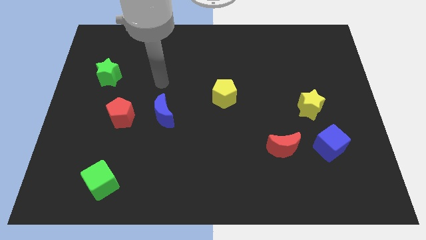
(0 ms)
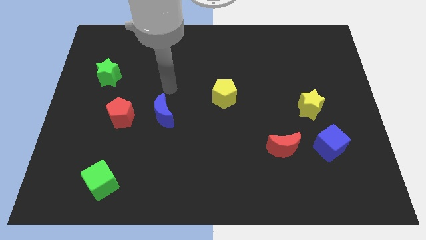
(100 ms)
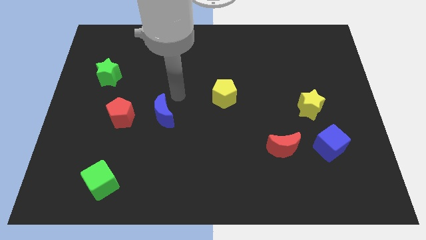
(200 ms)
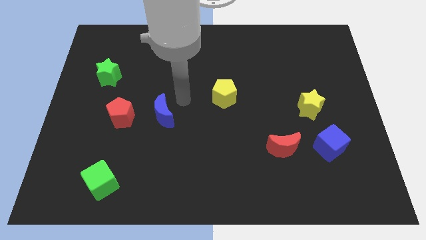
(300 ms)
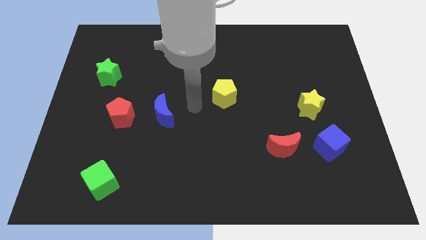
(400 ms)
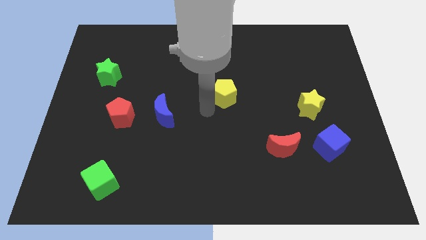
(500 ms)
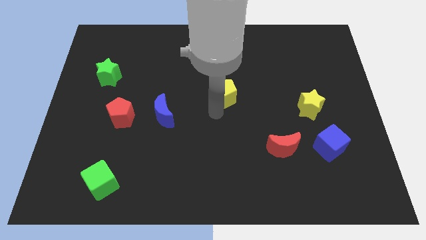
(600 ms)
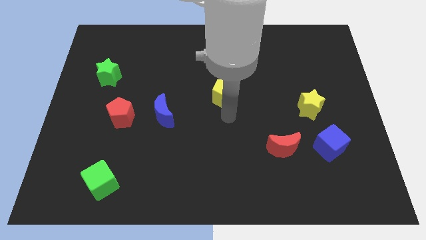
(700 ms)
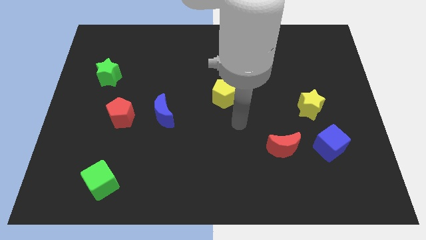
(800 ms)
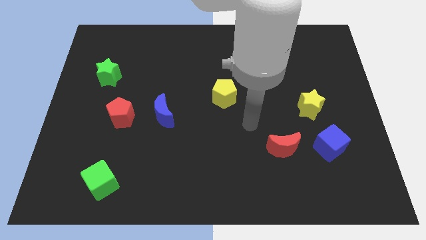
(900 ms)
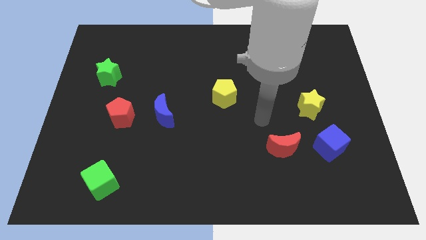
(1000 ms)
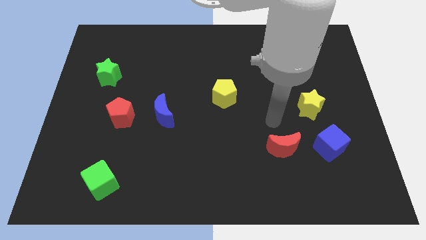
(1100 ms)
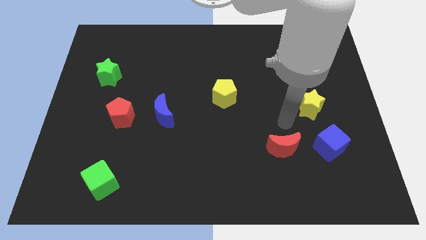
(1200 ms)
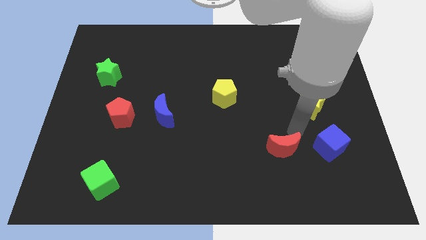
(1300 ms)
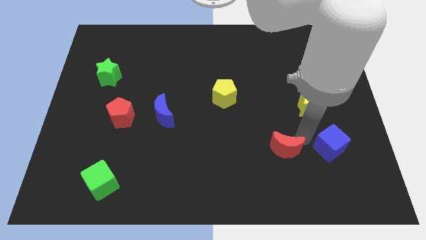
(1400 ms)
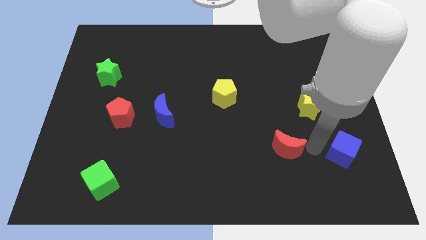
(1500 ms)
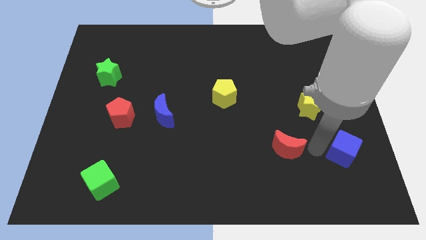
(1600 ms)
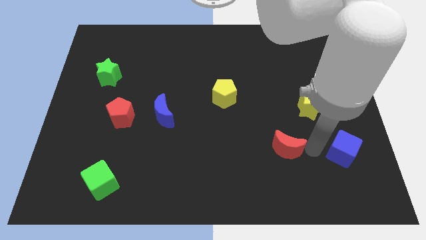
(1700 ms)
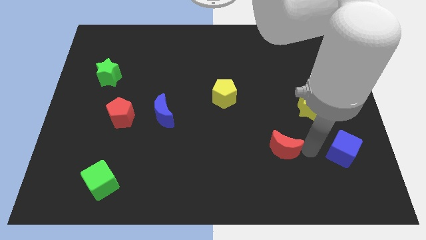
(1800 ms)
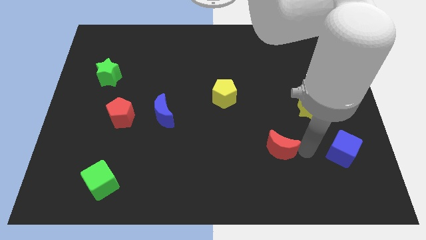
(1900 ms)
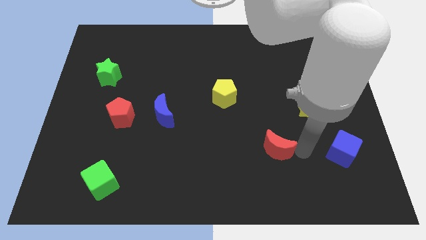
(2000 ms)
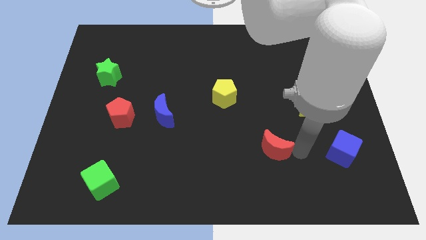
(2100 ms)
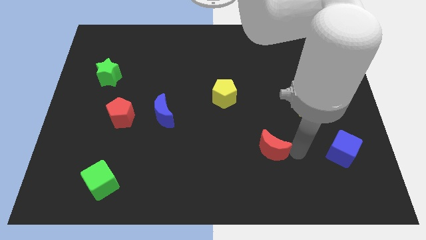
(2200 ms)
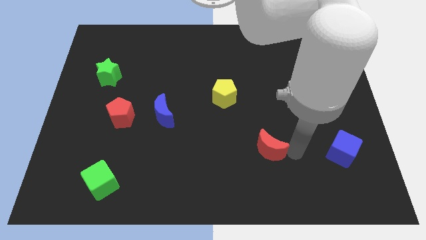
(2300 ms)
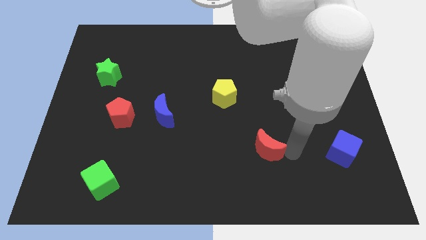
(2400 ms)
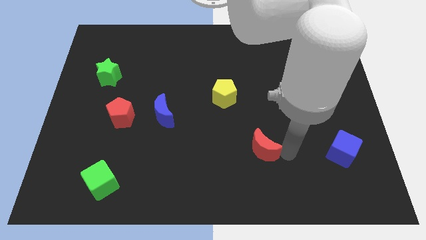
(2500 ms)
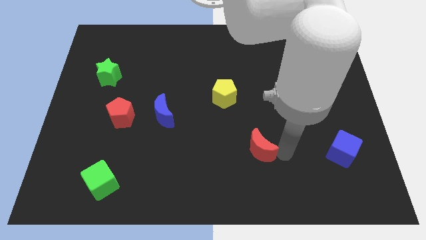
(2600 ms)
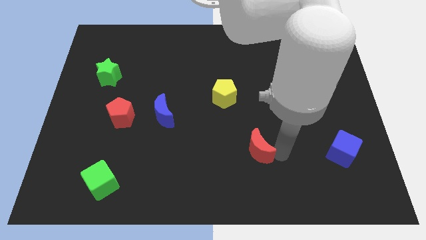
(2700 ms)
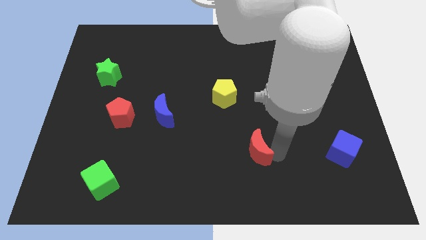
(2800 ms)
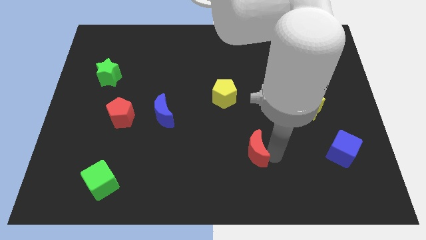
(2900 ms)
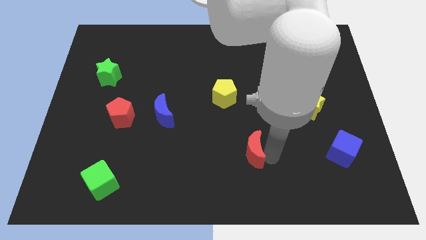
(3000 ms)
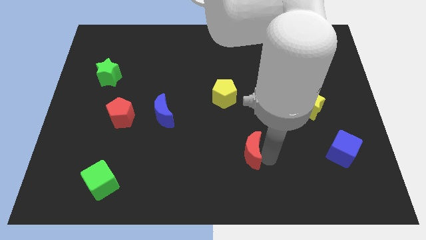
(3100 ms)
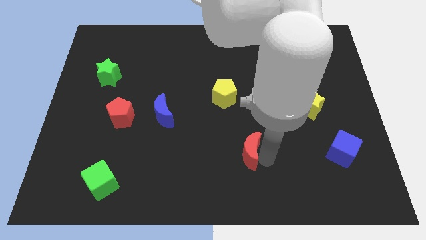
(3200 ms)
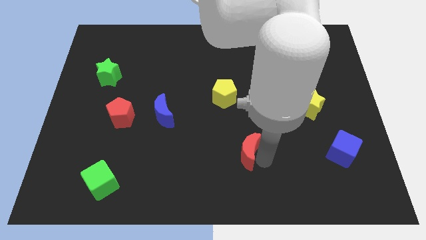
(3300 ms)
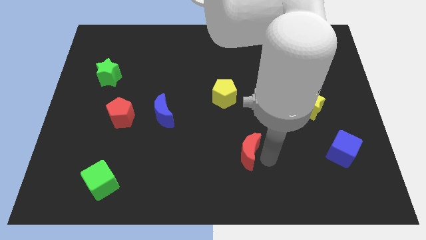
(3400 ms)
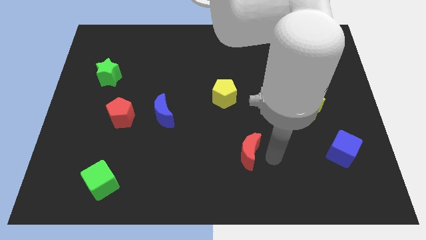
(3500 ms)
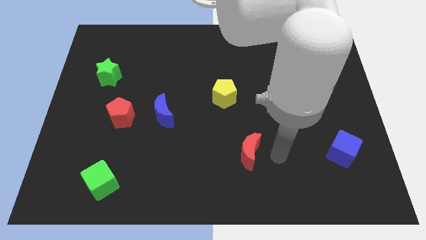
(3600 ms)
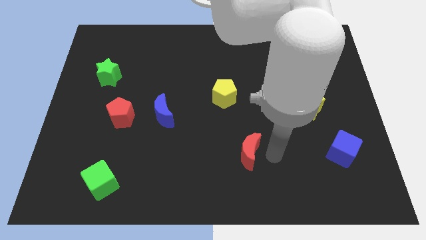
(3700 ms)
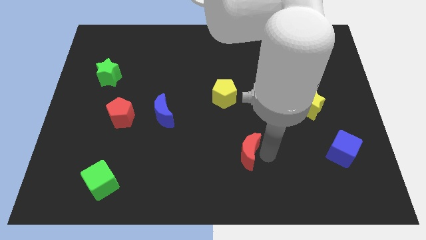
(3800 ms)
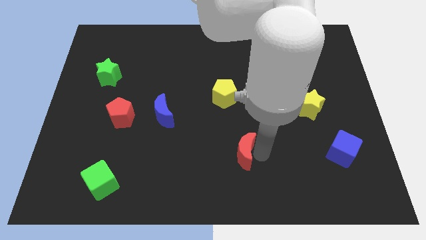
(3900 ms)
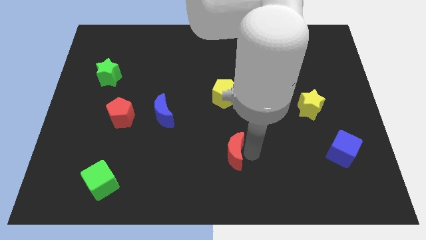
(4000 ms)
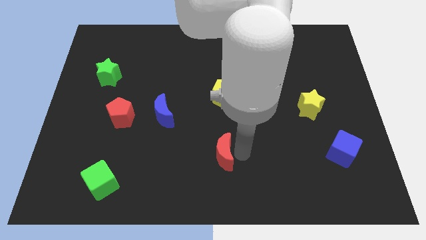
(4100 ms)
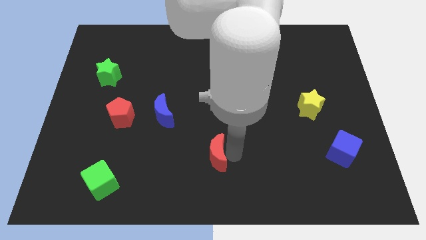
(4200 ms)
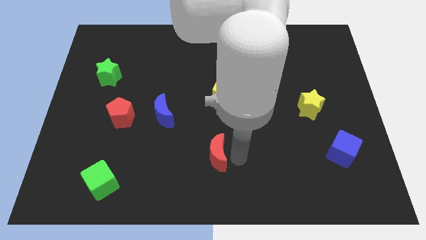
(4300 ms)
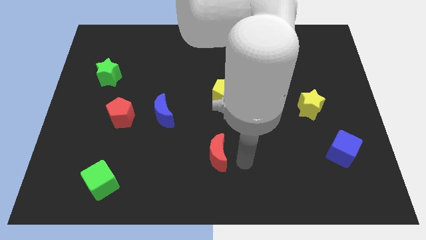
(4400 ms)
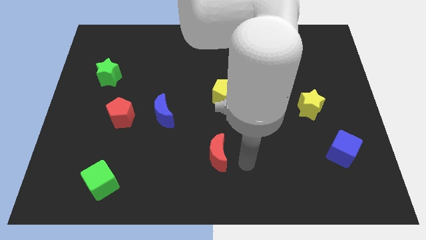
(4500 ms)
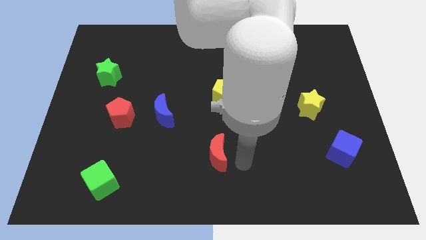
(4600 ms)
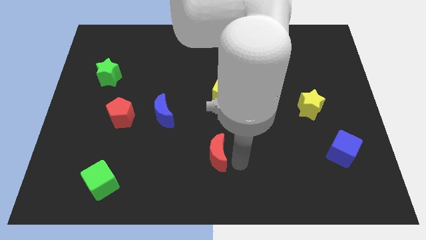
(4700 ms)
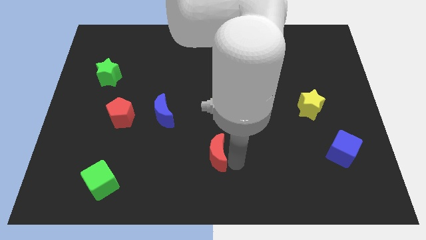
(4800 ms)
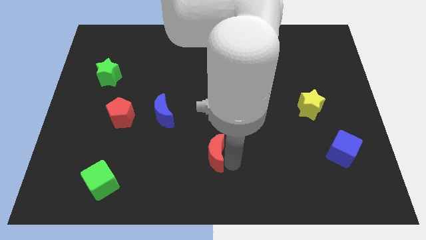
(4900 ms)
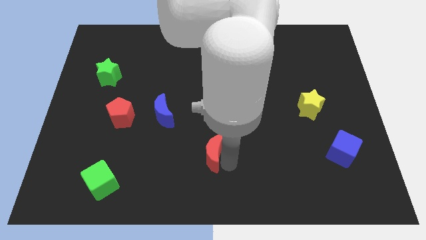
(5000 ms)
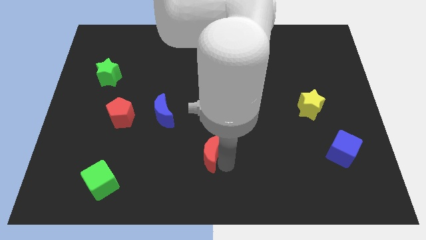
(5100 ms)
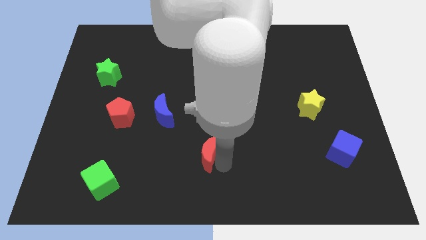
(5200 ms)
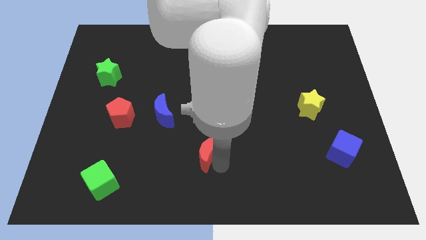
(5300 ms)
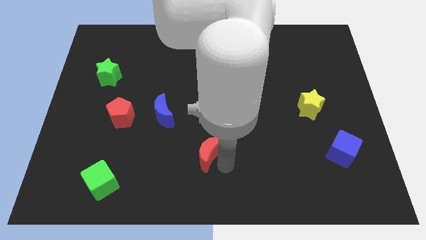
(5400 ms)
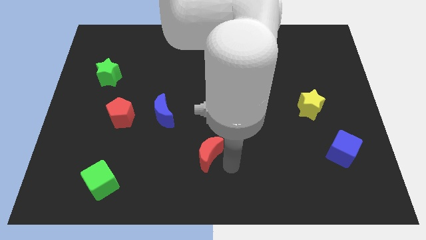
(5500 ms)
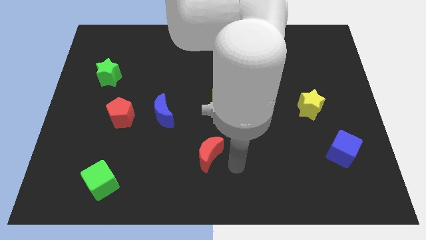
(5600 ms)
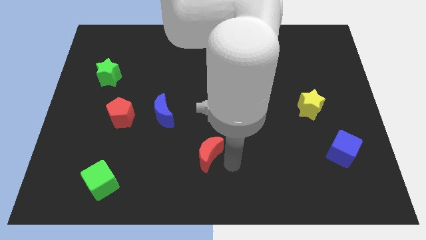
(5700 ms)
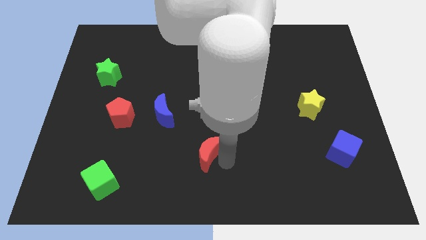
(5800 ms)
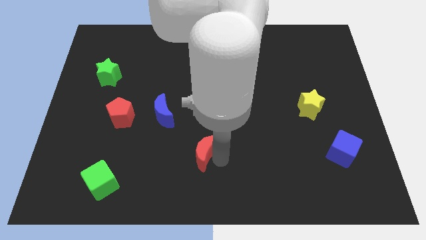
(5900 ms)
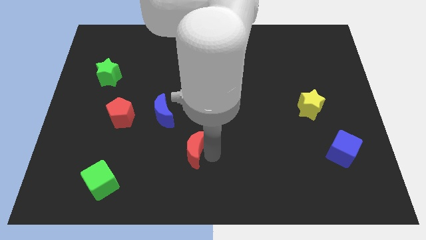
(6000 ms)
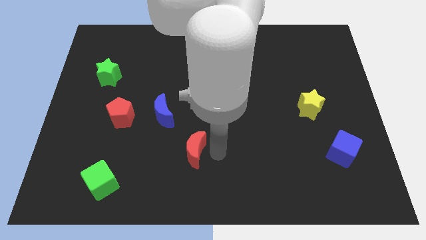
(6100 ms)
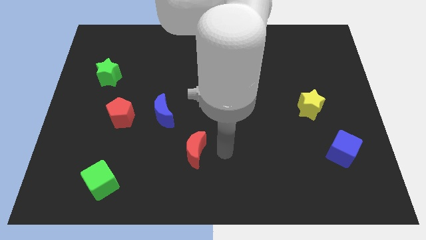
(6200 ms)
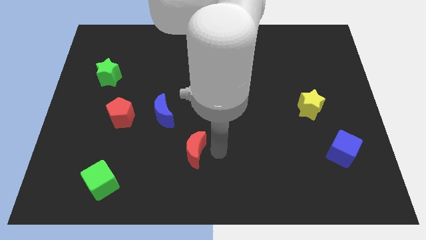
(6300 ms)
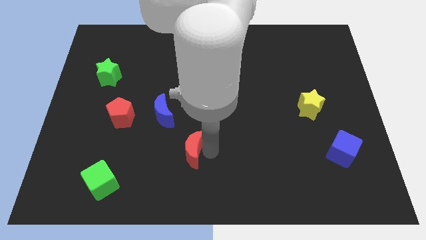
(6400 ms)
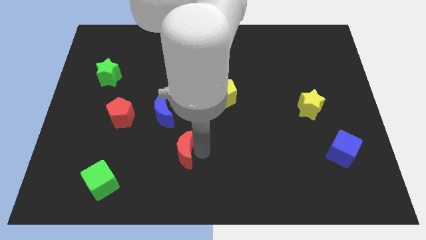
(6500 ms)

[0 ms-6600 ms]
slide the red moon to the left

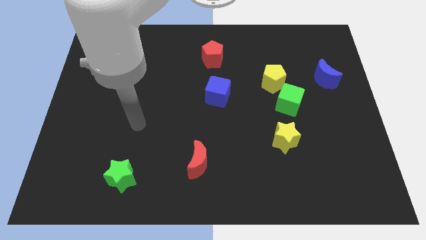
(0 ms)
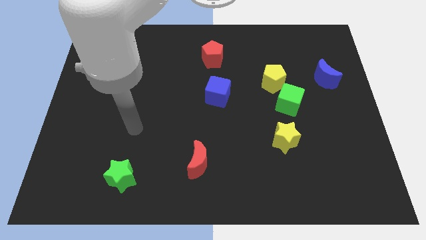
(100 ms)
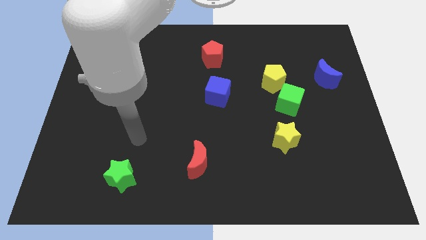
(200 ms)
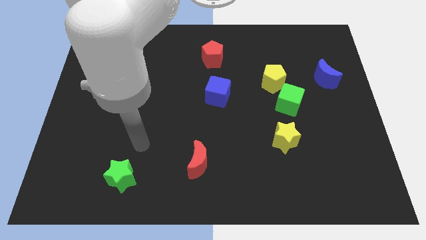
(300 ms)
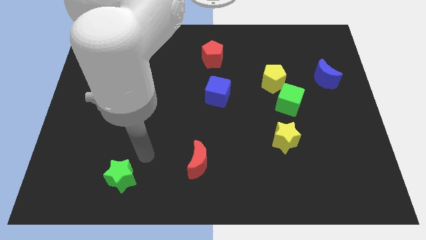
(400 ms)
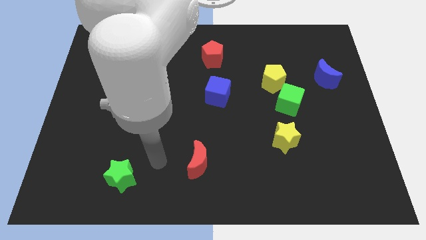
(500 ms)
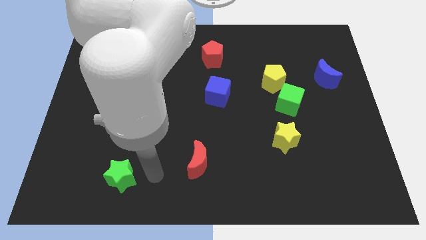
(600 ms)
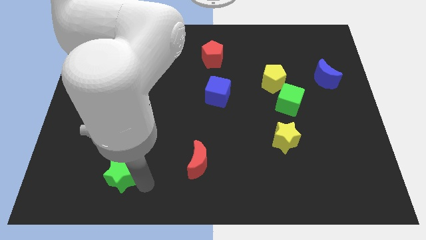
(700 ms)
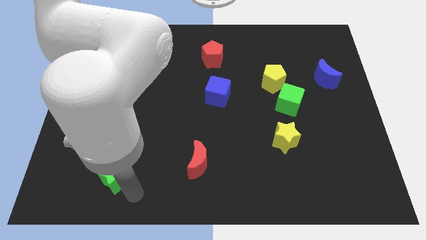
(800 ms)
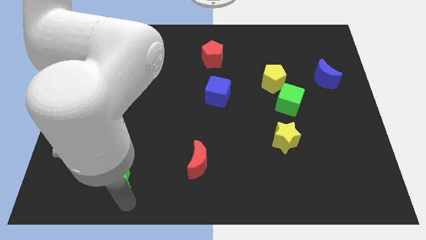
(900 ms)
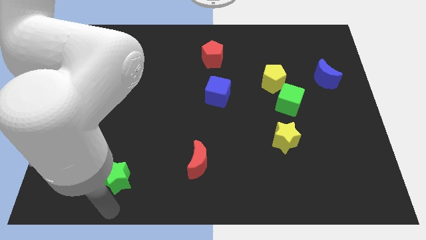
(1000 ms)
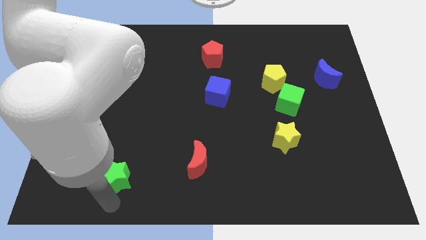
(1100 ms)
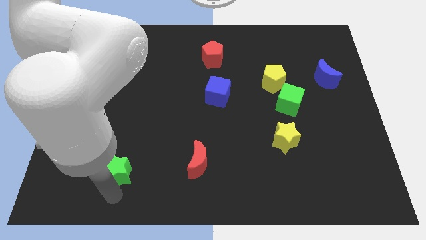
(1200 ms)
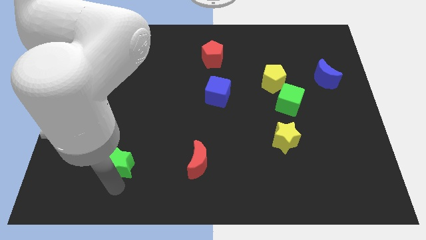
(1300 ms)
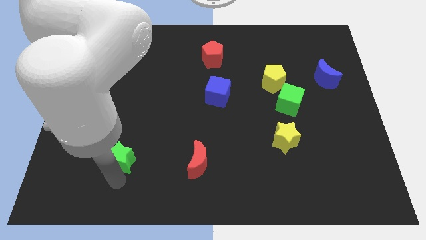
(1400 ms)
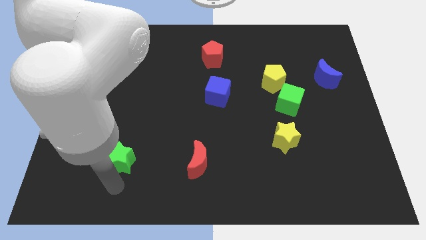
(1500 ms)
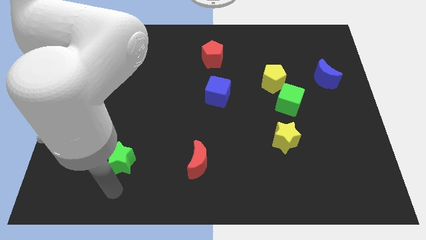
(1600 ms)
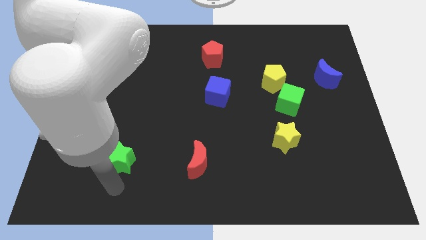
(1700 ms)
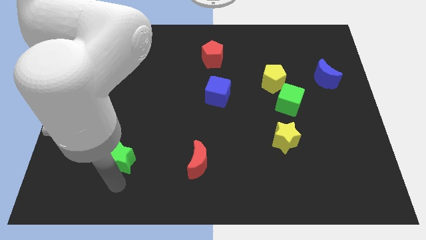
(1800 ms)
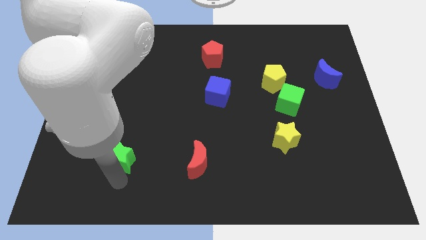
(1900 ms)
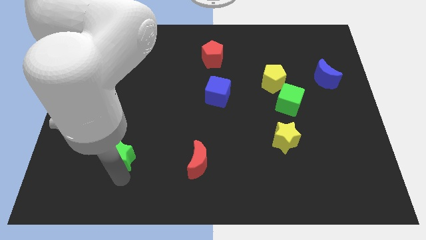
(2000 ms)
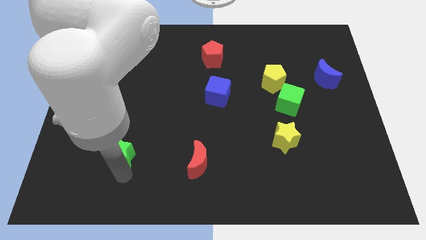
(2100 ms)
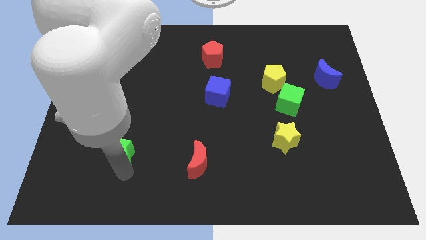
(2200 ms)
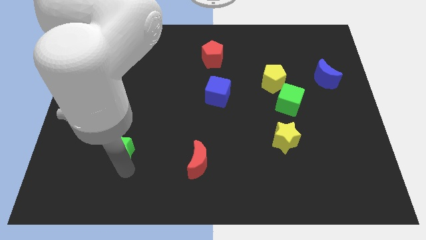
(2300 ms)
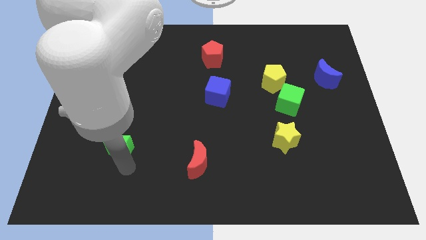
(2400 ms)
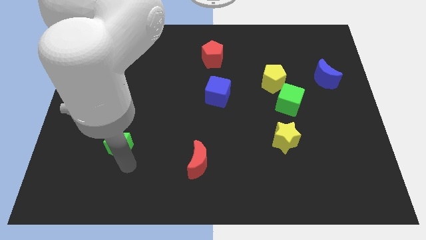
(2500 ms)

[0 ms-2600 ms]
slide the green star a little bit up
